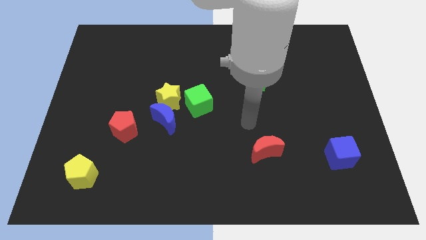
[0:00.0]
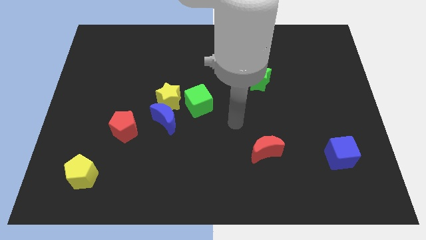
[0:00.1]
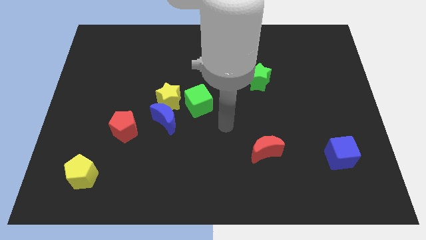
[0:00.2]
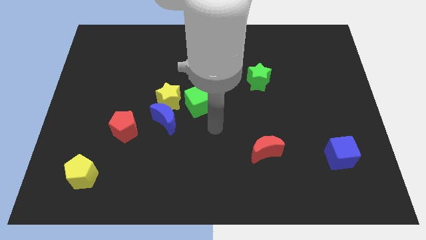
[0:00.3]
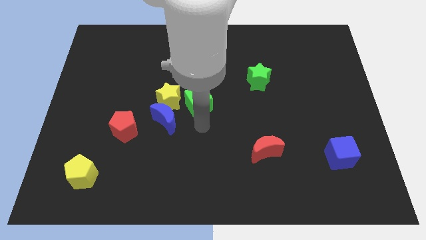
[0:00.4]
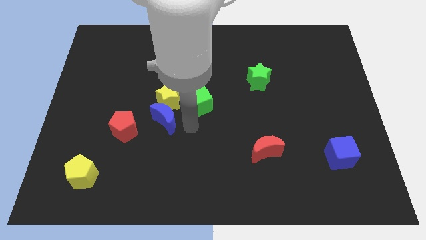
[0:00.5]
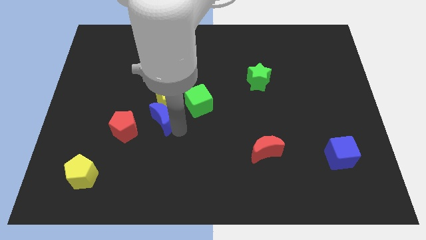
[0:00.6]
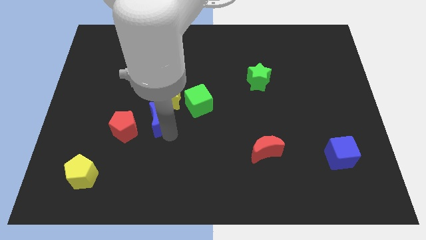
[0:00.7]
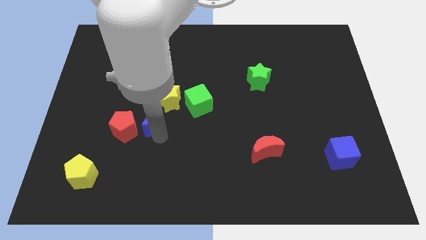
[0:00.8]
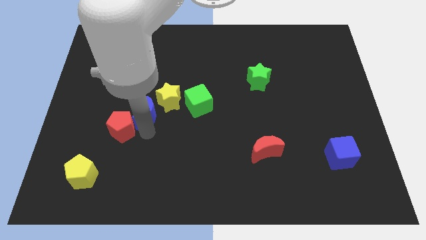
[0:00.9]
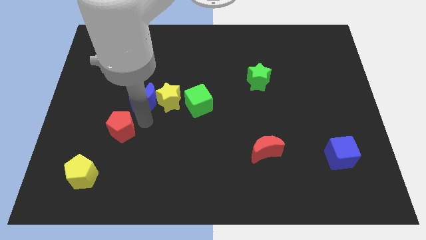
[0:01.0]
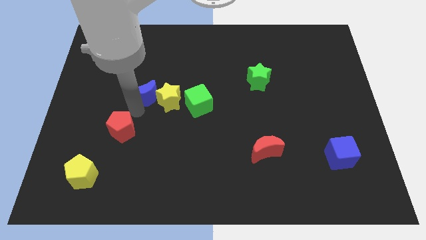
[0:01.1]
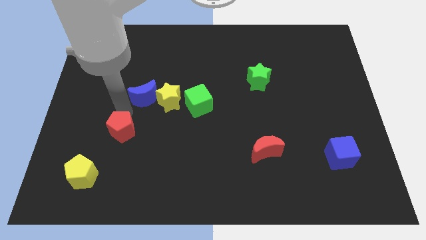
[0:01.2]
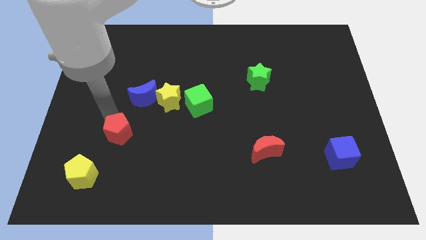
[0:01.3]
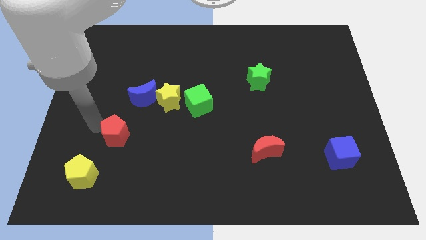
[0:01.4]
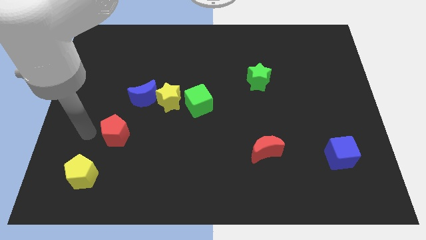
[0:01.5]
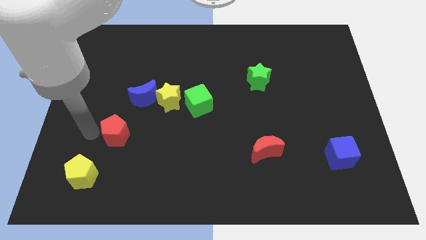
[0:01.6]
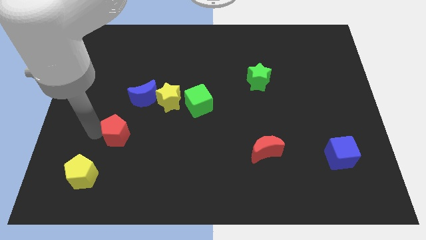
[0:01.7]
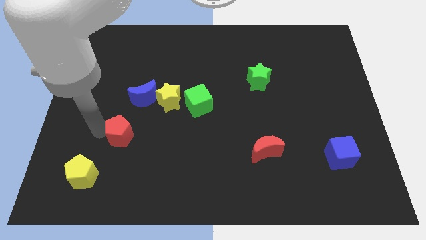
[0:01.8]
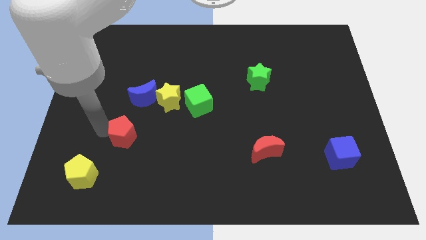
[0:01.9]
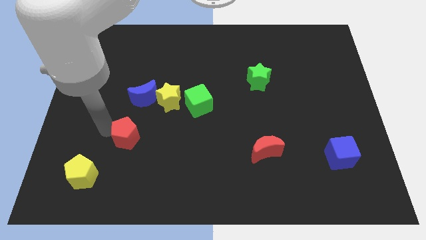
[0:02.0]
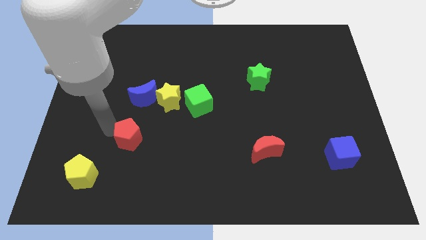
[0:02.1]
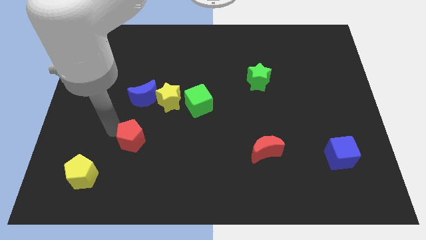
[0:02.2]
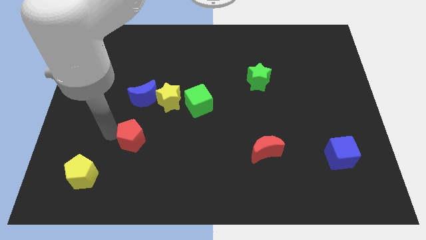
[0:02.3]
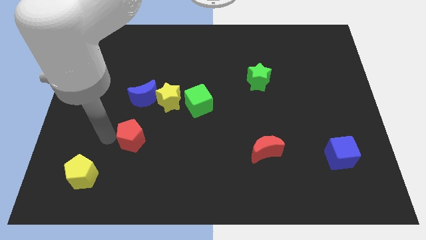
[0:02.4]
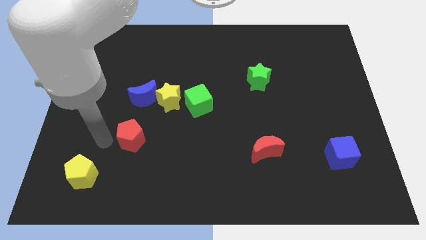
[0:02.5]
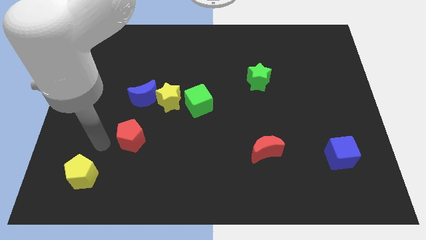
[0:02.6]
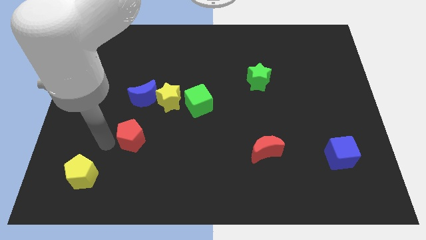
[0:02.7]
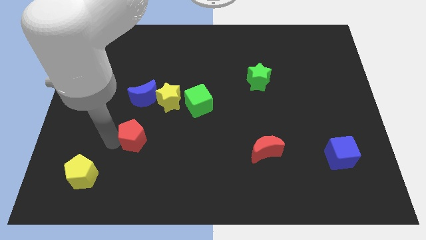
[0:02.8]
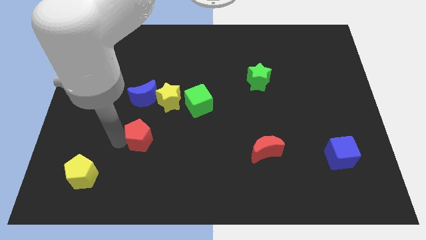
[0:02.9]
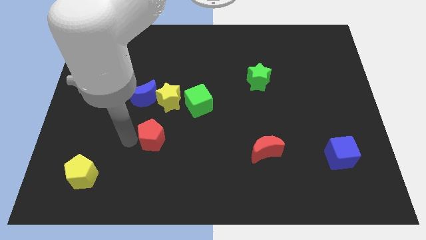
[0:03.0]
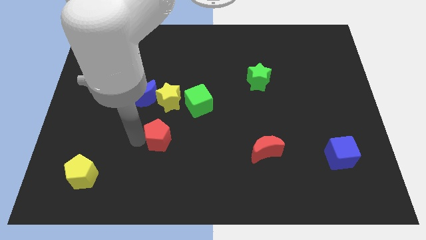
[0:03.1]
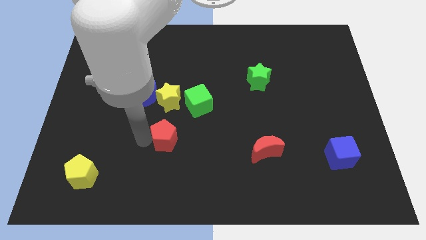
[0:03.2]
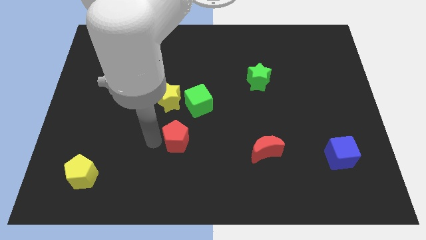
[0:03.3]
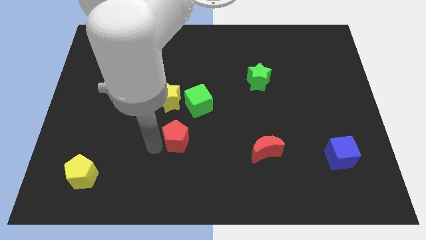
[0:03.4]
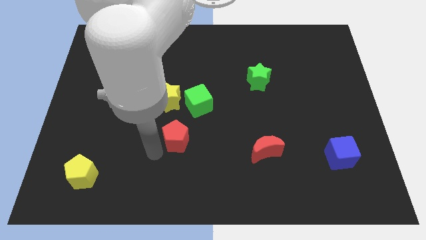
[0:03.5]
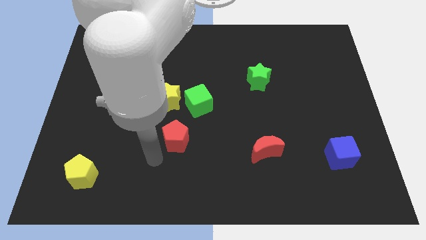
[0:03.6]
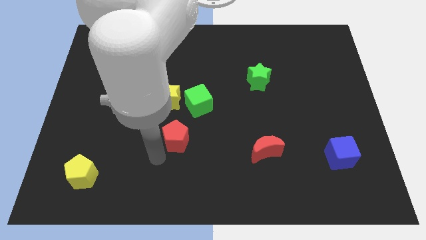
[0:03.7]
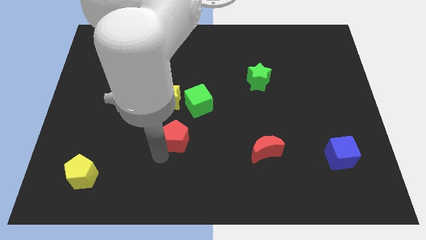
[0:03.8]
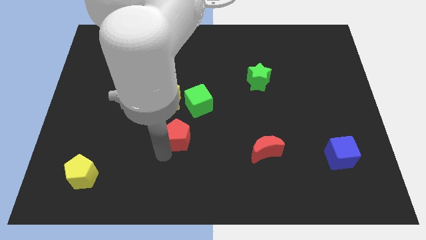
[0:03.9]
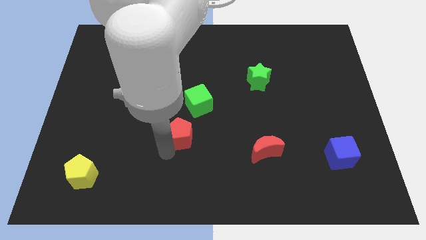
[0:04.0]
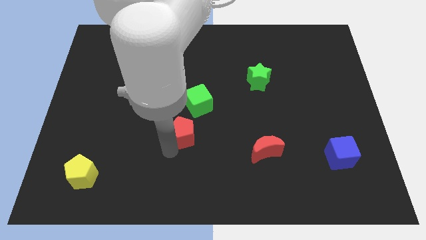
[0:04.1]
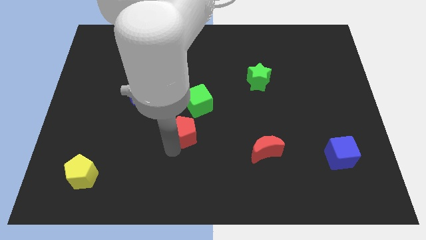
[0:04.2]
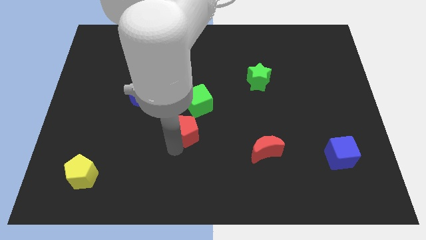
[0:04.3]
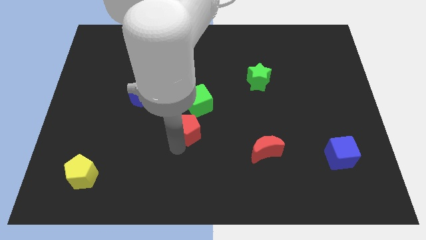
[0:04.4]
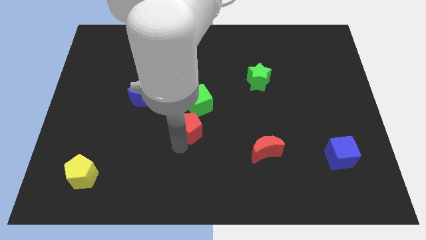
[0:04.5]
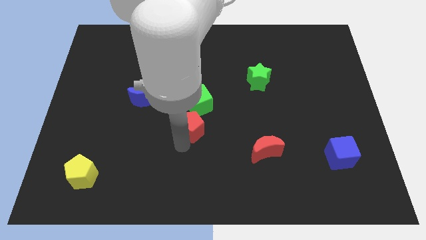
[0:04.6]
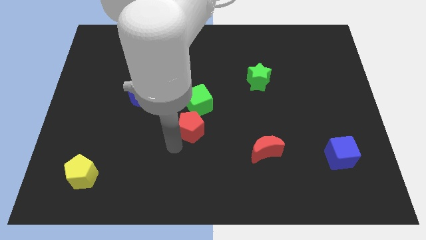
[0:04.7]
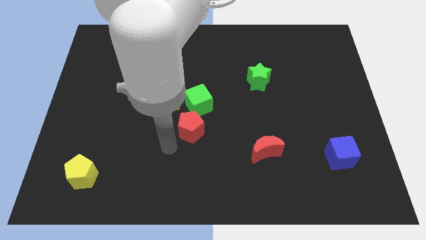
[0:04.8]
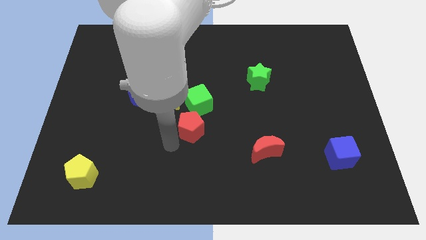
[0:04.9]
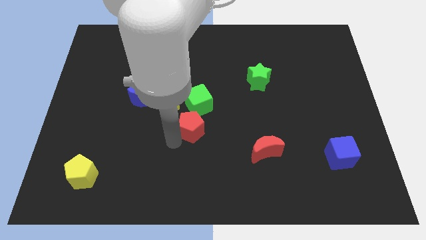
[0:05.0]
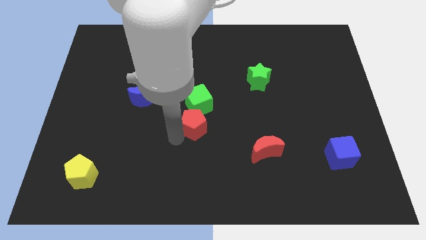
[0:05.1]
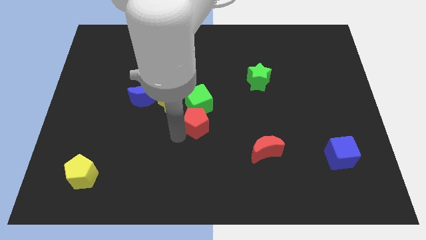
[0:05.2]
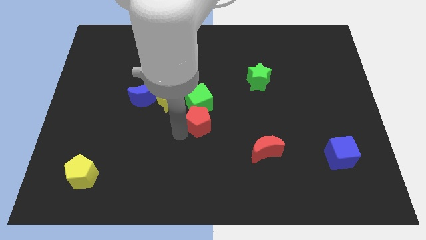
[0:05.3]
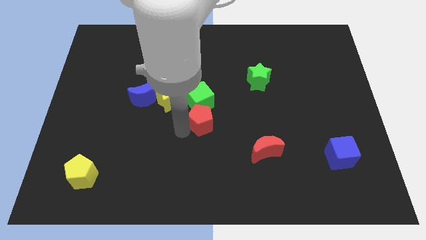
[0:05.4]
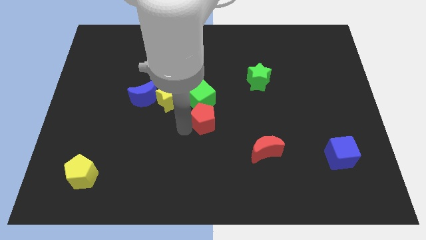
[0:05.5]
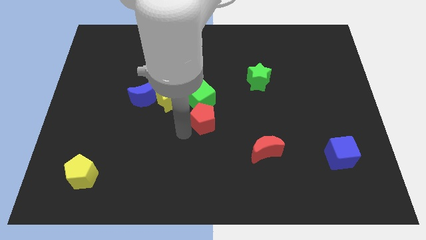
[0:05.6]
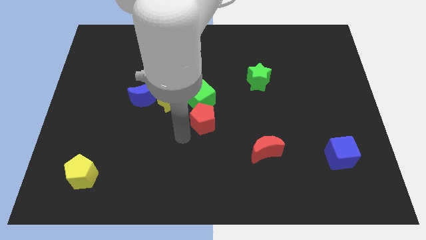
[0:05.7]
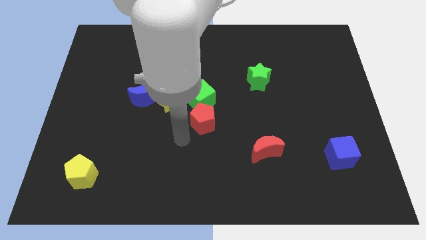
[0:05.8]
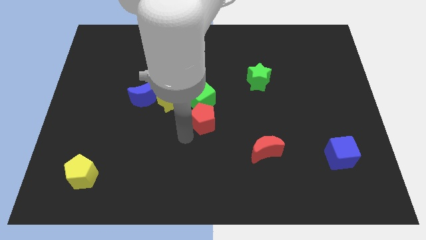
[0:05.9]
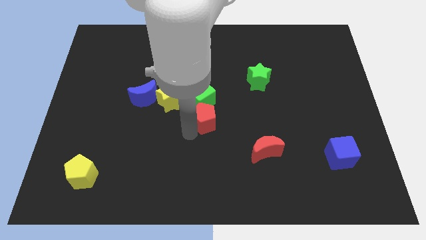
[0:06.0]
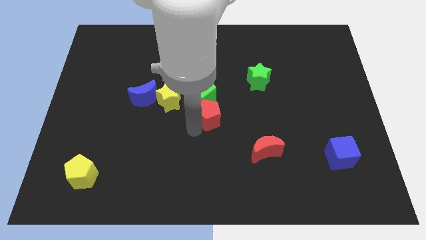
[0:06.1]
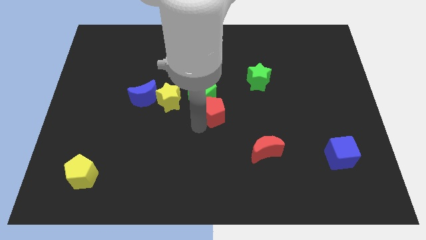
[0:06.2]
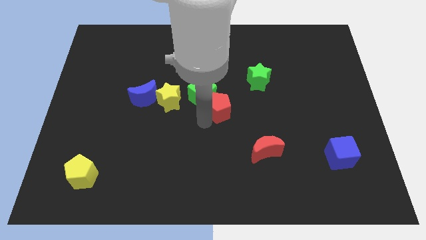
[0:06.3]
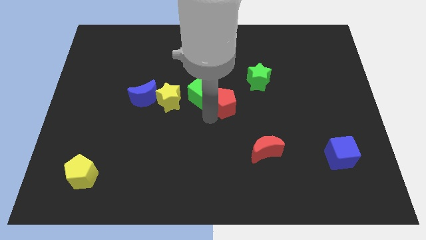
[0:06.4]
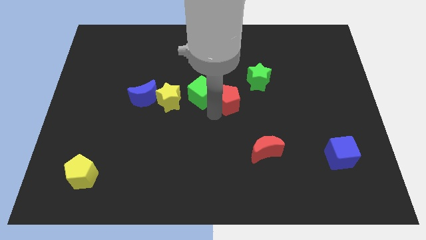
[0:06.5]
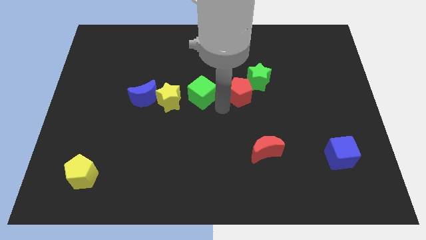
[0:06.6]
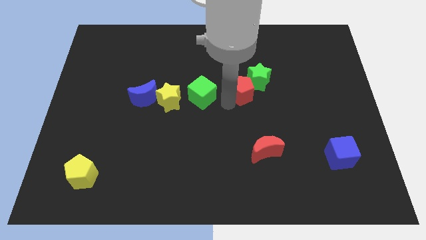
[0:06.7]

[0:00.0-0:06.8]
slide the red pentagon next to the green star
